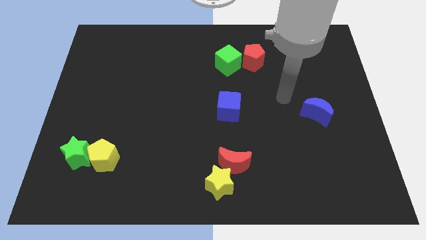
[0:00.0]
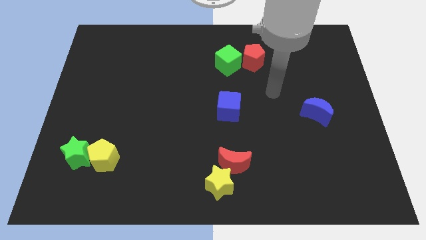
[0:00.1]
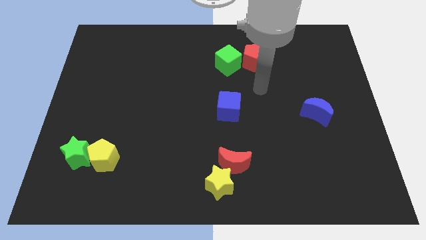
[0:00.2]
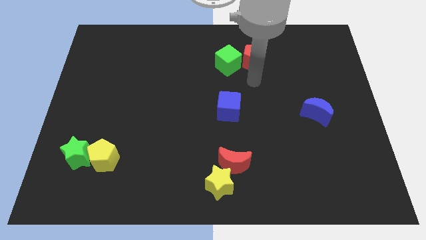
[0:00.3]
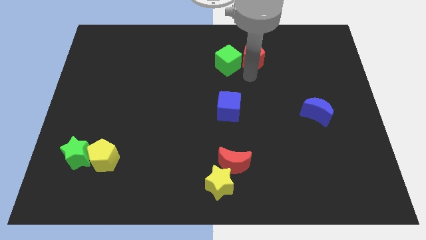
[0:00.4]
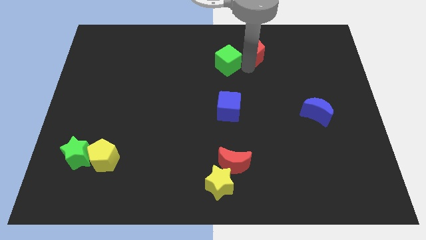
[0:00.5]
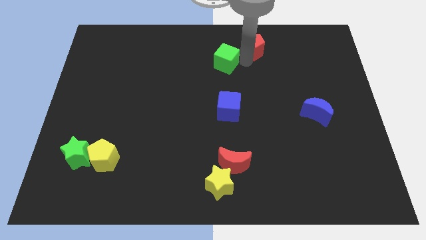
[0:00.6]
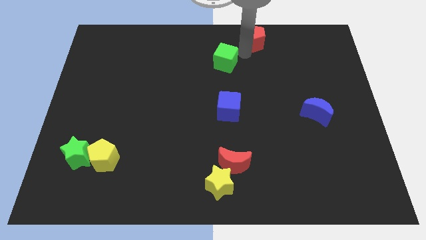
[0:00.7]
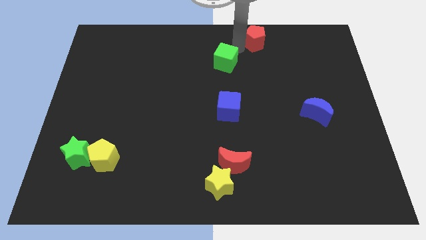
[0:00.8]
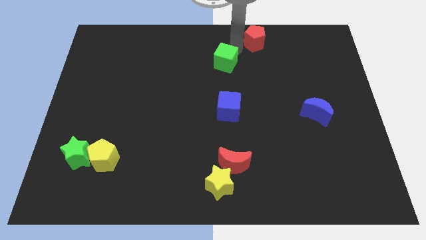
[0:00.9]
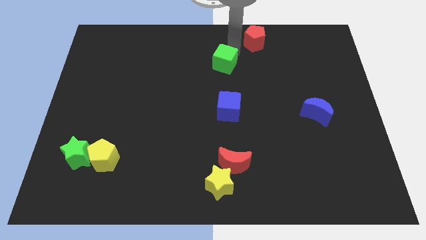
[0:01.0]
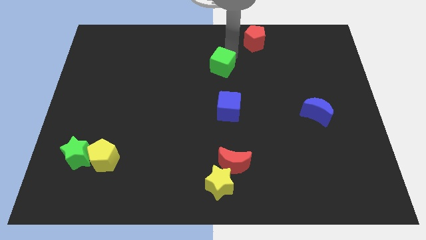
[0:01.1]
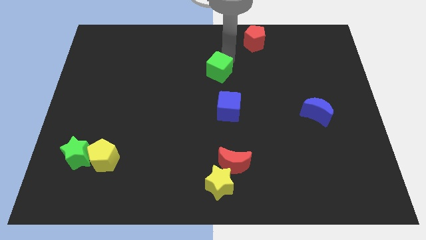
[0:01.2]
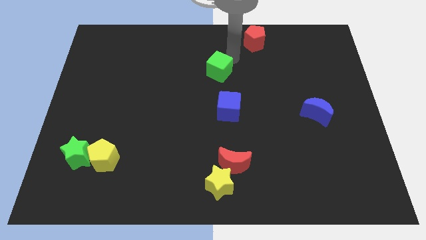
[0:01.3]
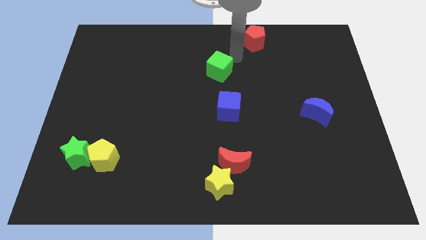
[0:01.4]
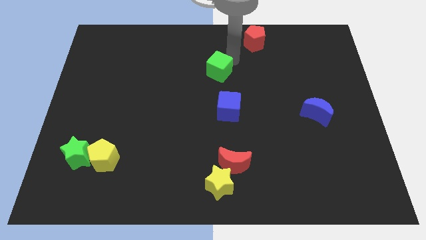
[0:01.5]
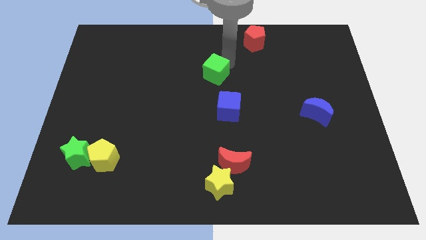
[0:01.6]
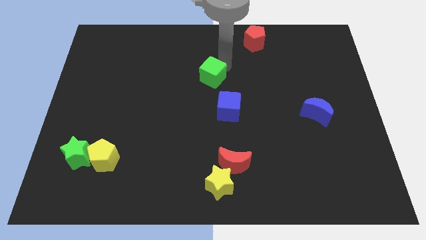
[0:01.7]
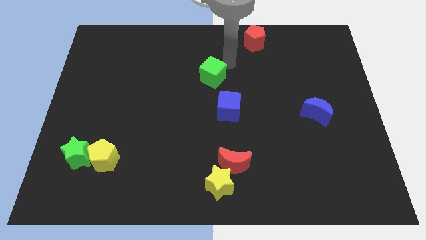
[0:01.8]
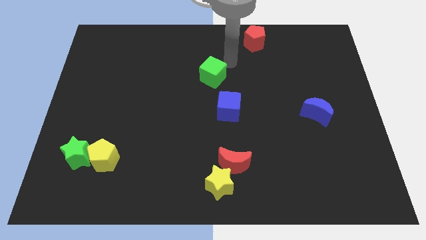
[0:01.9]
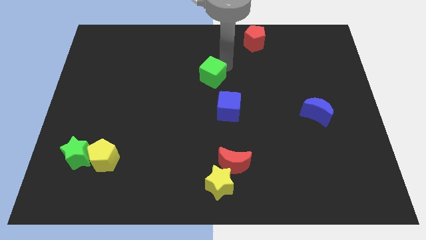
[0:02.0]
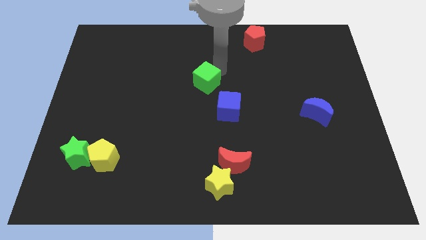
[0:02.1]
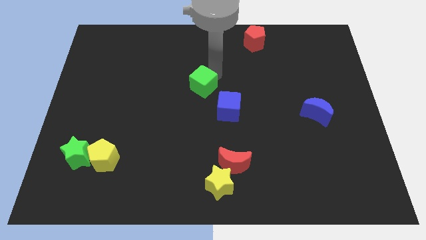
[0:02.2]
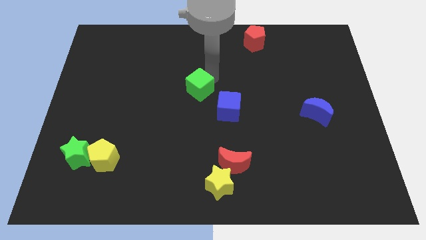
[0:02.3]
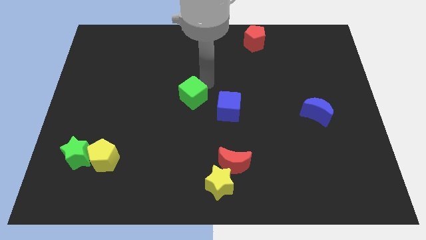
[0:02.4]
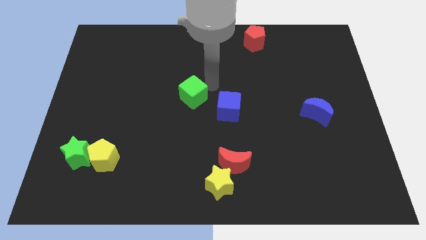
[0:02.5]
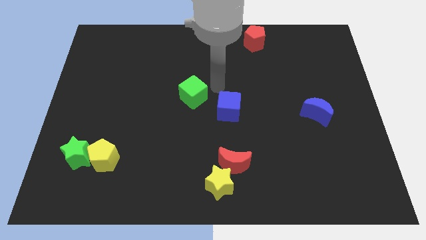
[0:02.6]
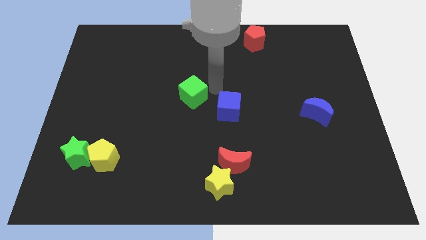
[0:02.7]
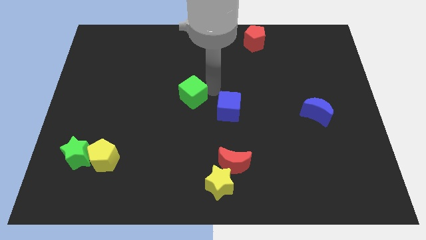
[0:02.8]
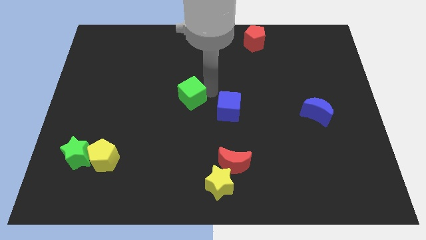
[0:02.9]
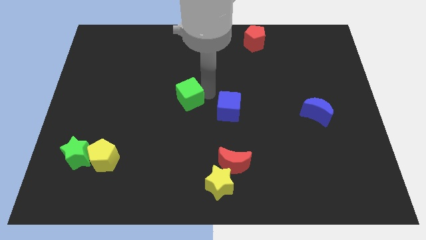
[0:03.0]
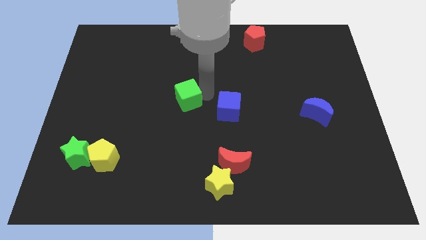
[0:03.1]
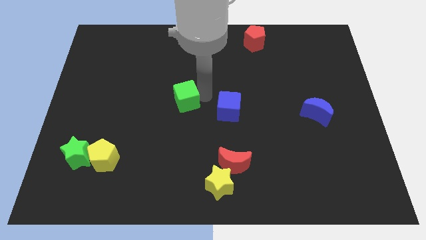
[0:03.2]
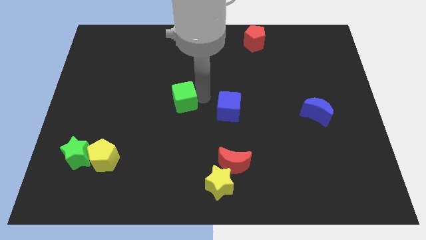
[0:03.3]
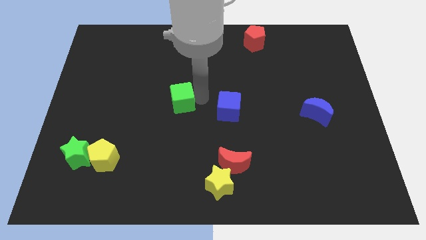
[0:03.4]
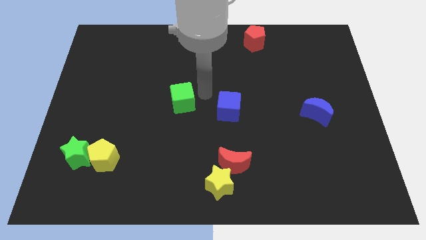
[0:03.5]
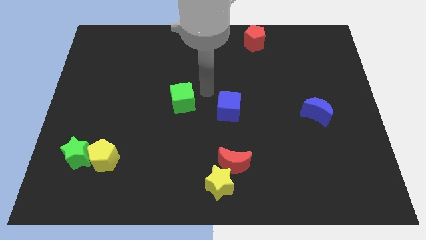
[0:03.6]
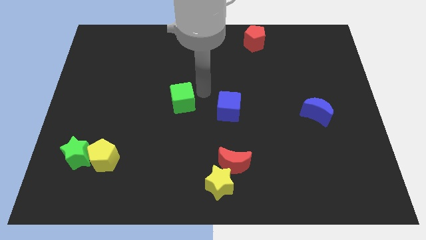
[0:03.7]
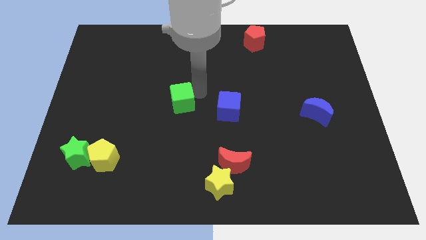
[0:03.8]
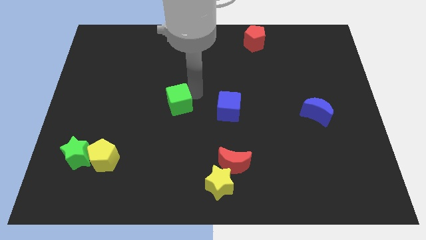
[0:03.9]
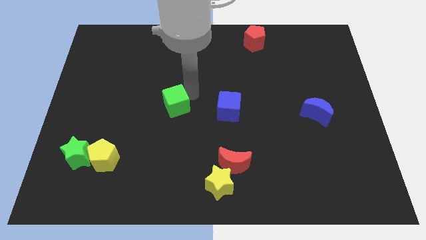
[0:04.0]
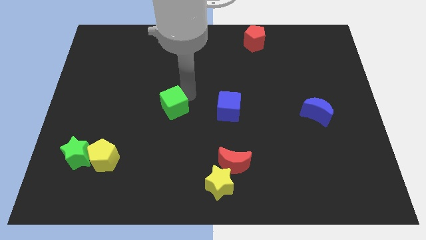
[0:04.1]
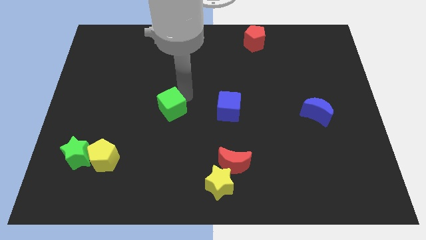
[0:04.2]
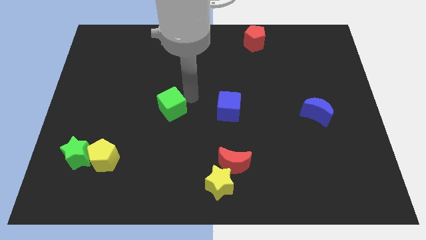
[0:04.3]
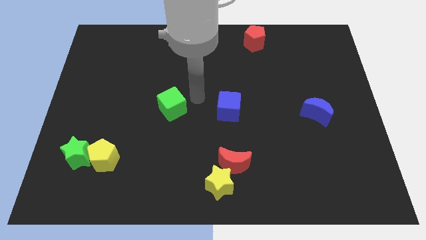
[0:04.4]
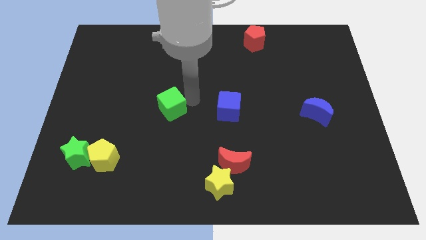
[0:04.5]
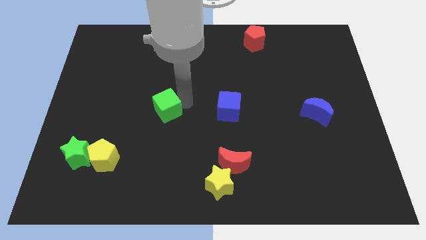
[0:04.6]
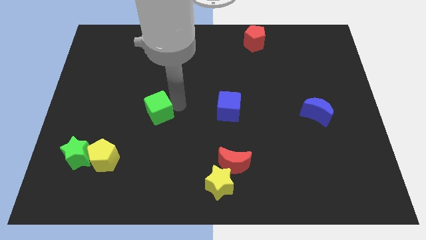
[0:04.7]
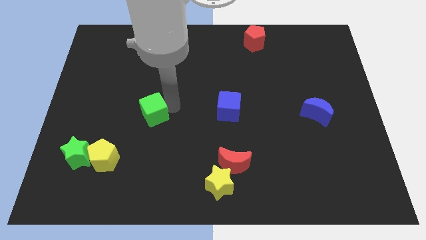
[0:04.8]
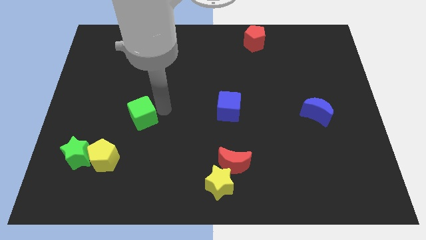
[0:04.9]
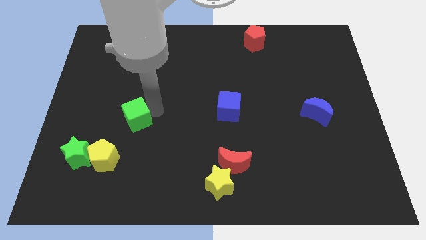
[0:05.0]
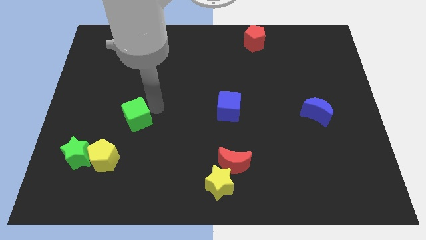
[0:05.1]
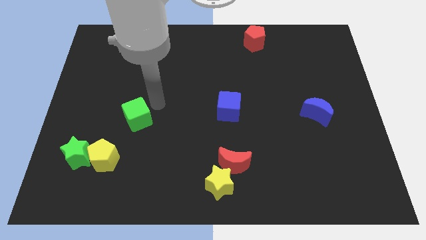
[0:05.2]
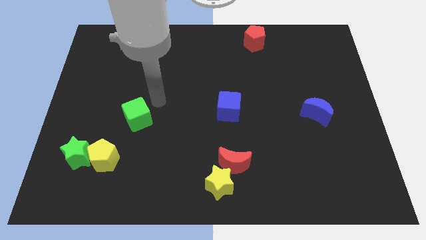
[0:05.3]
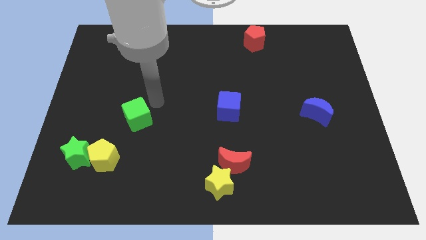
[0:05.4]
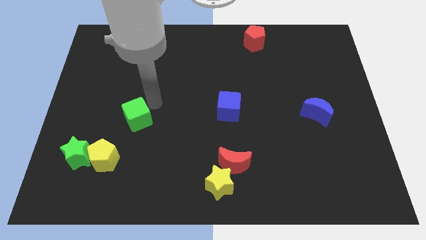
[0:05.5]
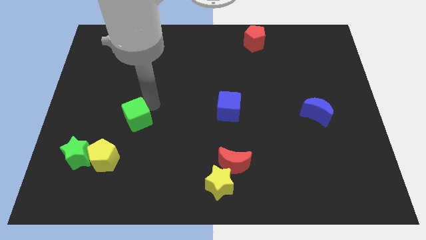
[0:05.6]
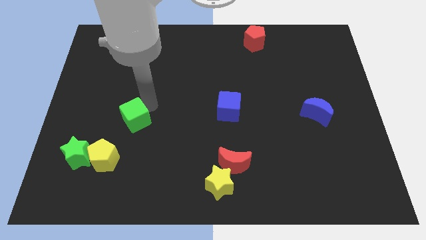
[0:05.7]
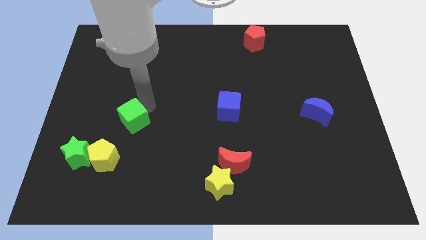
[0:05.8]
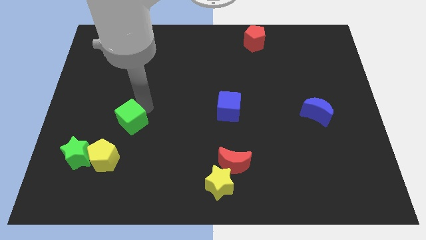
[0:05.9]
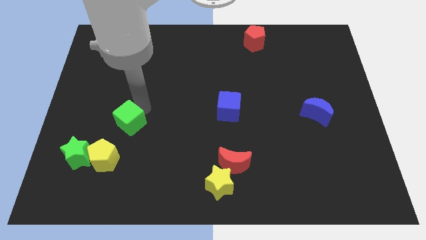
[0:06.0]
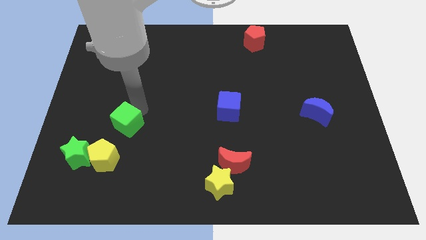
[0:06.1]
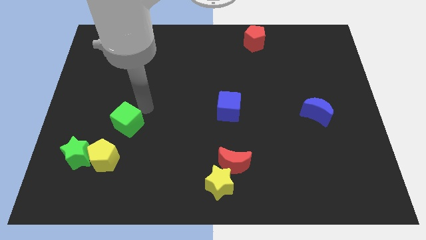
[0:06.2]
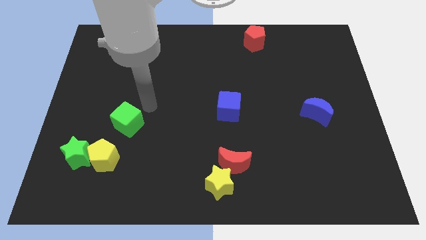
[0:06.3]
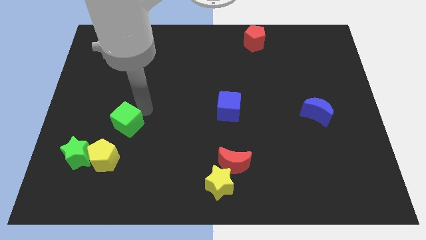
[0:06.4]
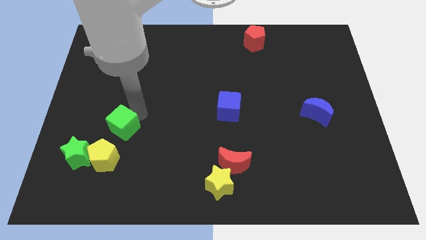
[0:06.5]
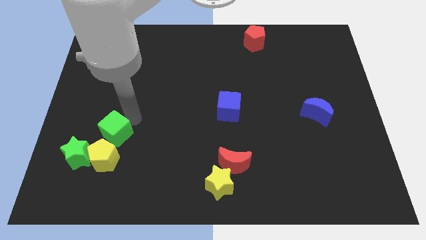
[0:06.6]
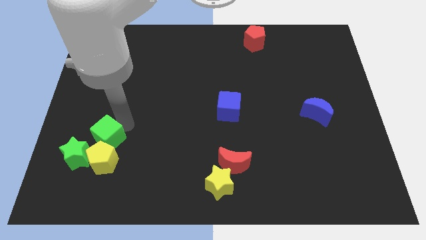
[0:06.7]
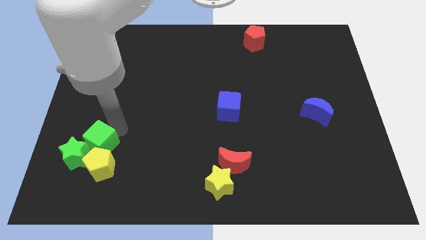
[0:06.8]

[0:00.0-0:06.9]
put the green cube next to the green star

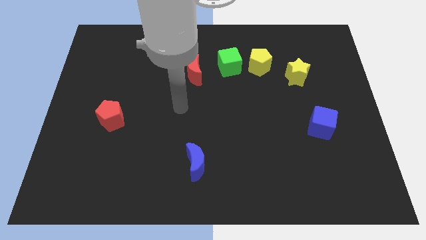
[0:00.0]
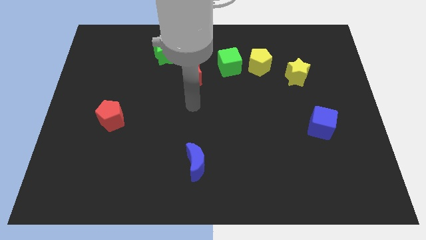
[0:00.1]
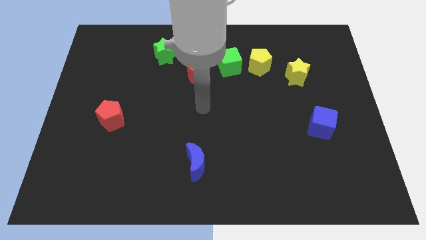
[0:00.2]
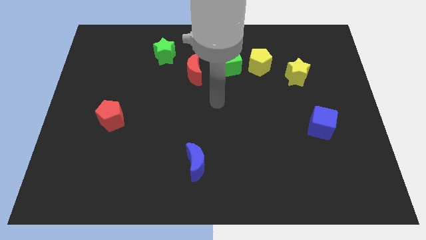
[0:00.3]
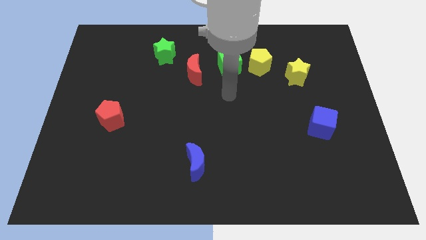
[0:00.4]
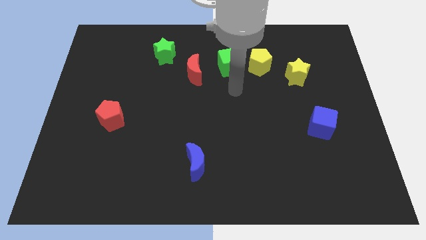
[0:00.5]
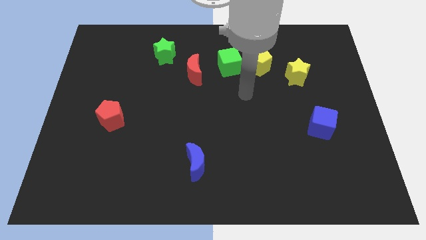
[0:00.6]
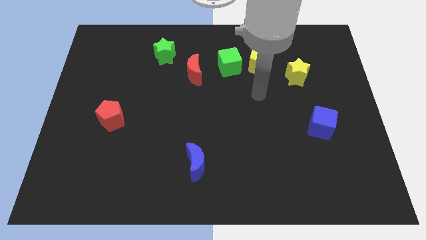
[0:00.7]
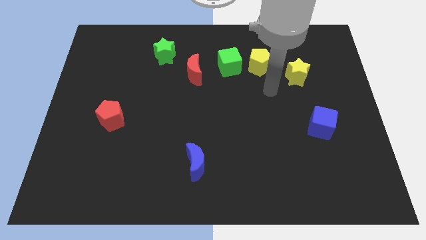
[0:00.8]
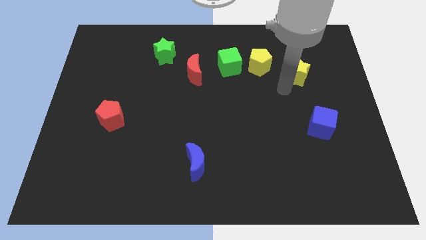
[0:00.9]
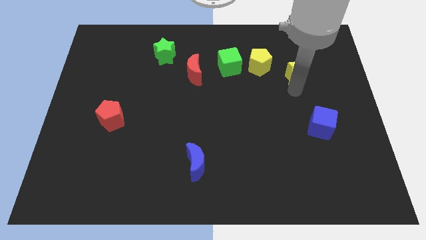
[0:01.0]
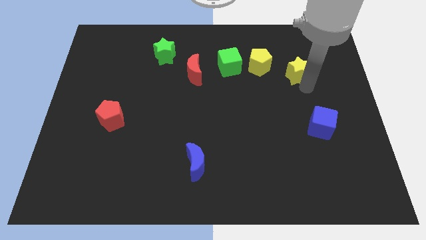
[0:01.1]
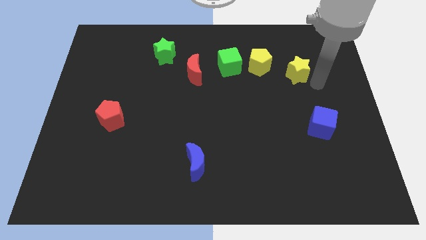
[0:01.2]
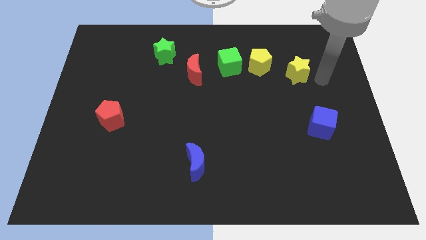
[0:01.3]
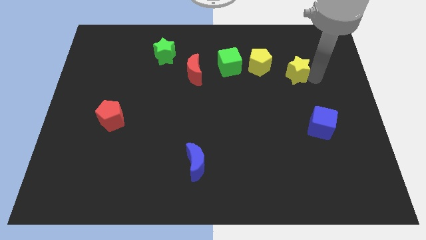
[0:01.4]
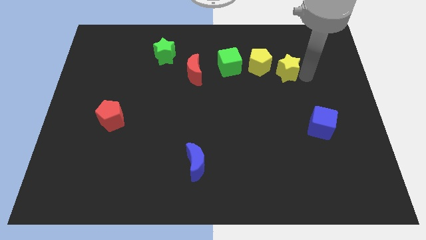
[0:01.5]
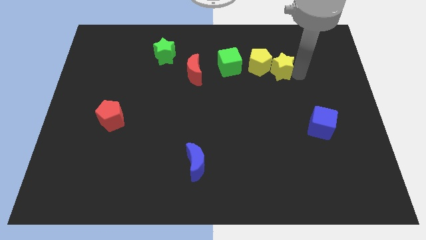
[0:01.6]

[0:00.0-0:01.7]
move the yellow star towards the yellow pentagon
